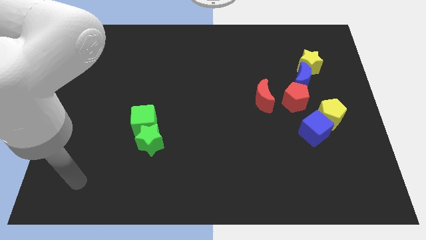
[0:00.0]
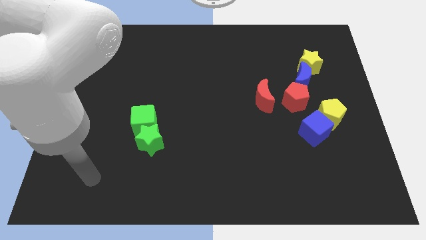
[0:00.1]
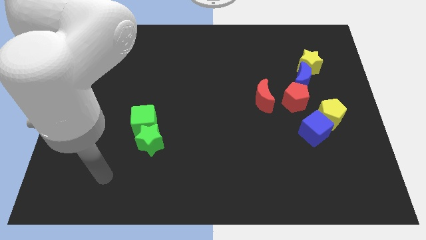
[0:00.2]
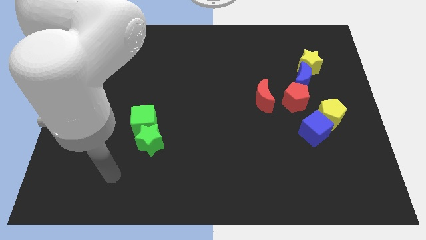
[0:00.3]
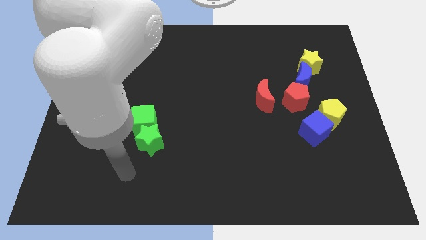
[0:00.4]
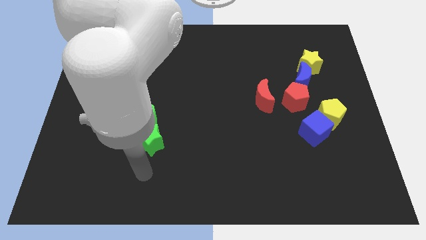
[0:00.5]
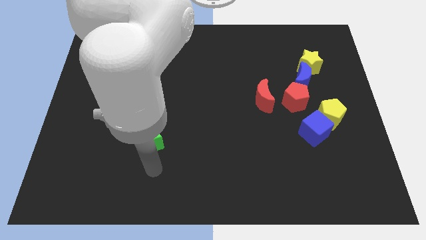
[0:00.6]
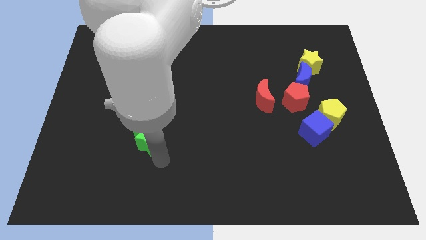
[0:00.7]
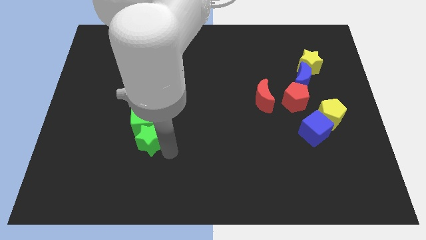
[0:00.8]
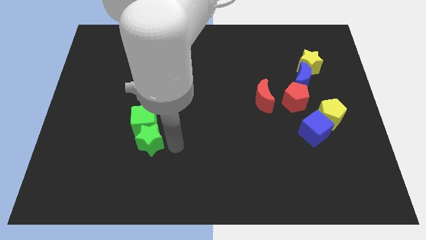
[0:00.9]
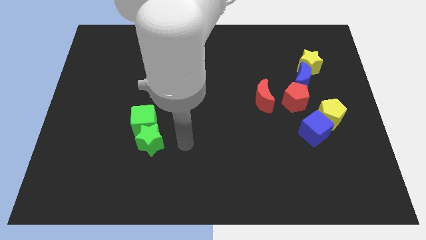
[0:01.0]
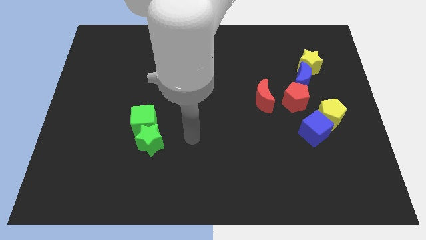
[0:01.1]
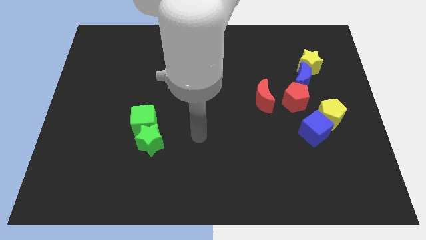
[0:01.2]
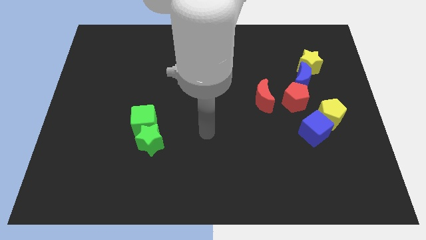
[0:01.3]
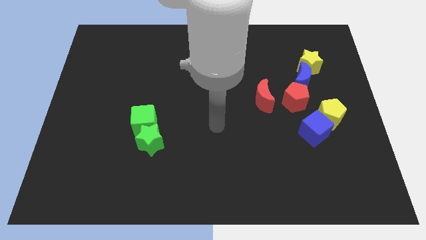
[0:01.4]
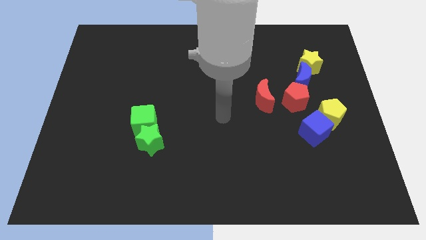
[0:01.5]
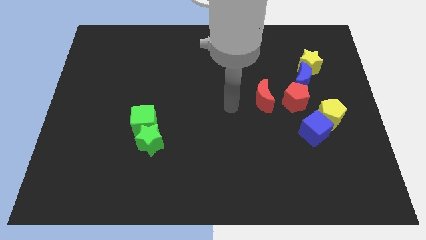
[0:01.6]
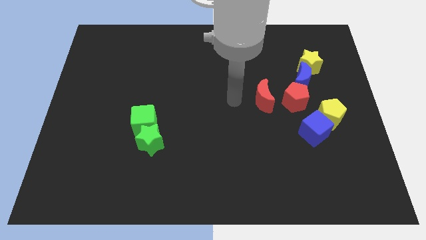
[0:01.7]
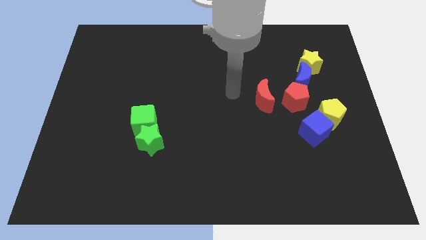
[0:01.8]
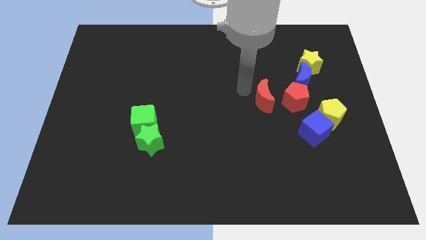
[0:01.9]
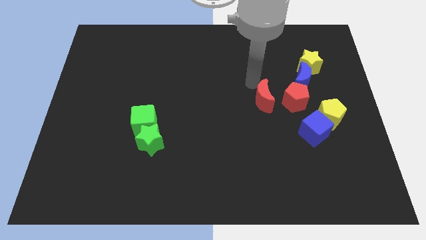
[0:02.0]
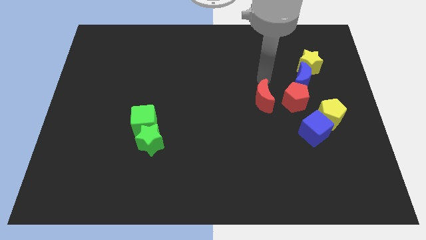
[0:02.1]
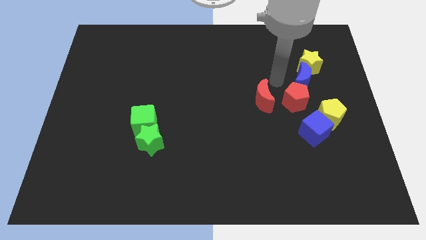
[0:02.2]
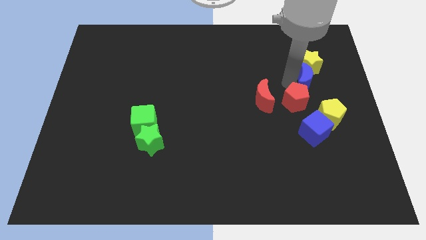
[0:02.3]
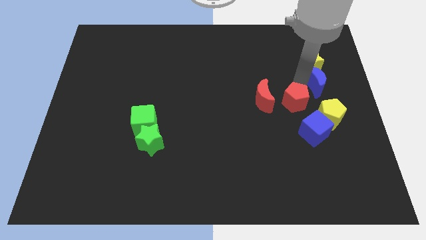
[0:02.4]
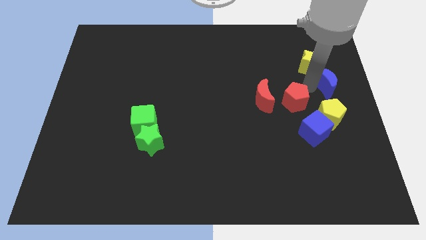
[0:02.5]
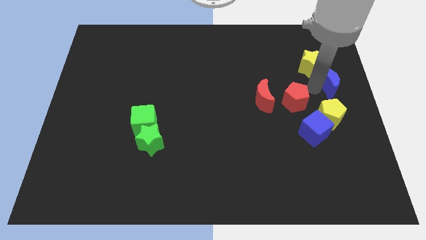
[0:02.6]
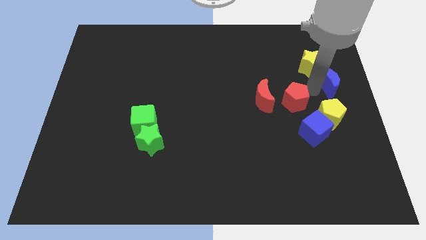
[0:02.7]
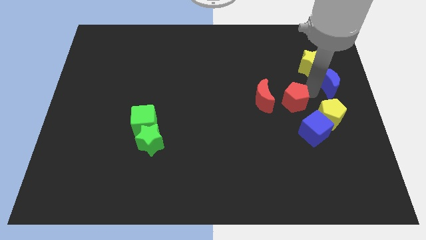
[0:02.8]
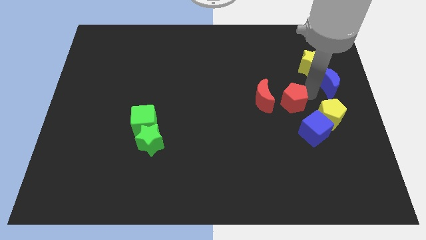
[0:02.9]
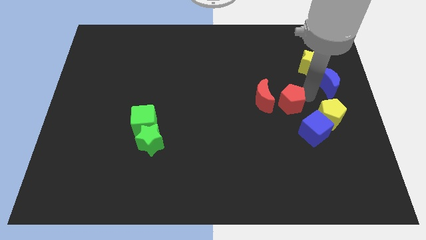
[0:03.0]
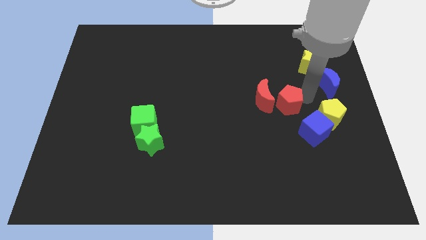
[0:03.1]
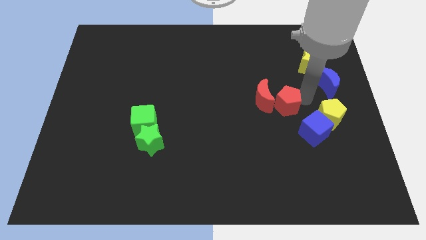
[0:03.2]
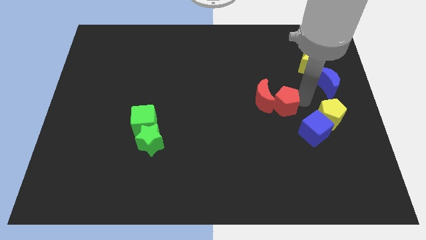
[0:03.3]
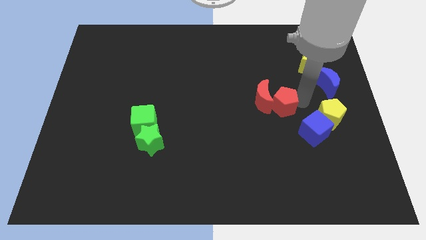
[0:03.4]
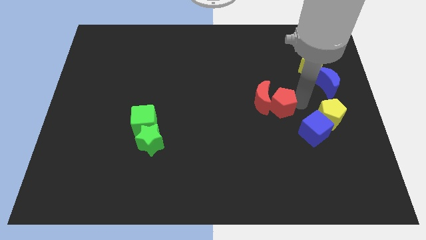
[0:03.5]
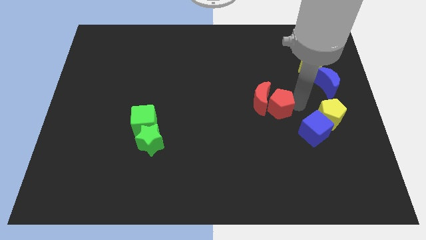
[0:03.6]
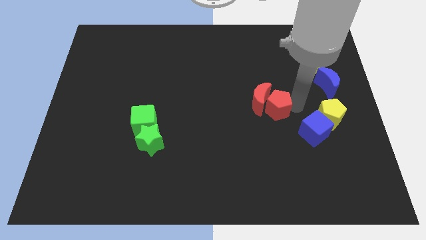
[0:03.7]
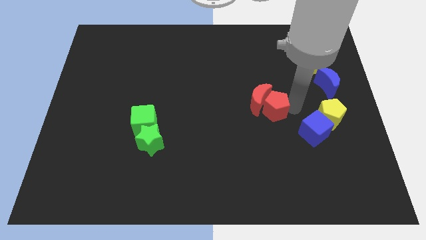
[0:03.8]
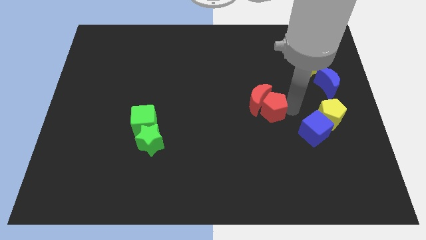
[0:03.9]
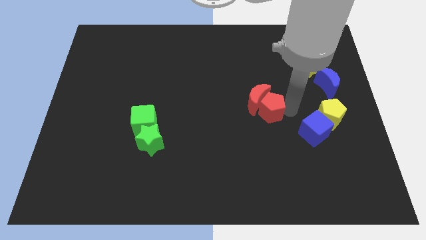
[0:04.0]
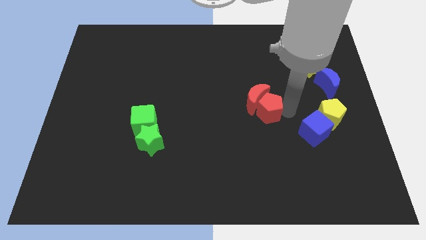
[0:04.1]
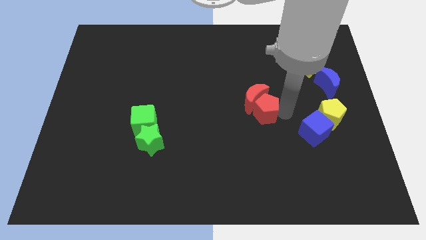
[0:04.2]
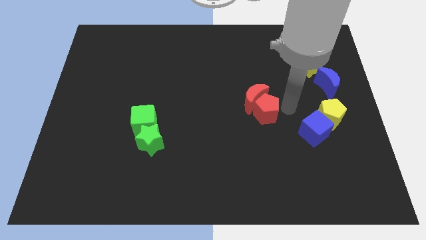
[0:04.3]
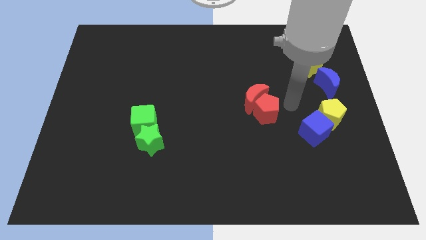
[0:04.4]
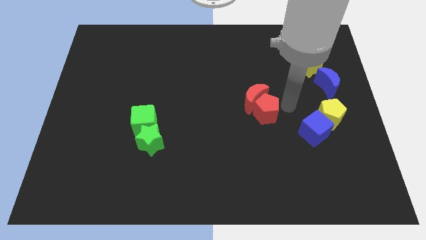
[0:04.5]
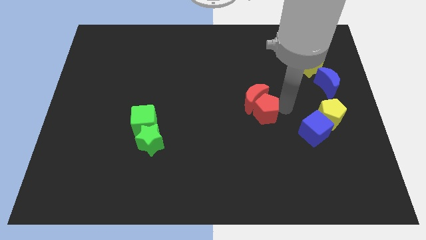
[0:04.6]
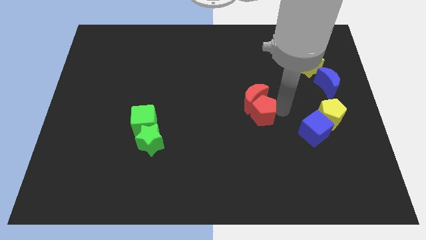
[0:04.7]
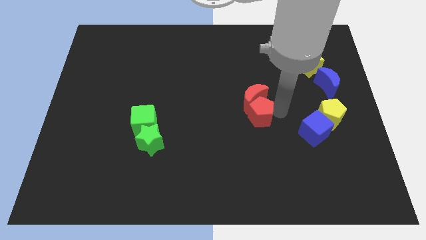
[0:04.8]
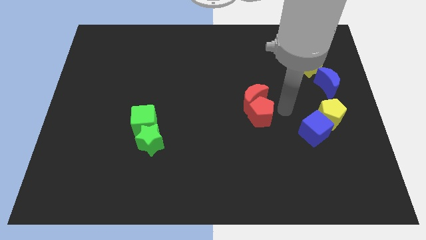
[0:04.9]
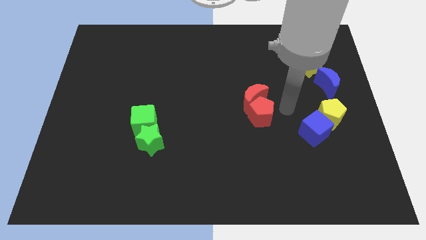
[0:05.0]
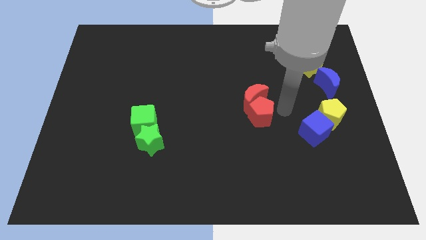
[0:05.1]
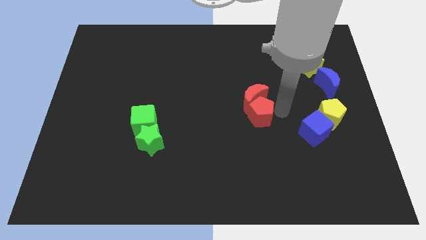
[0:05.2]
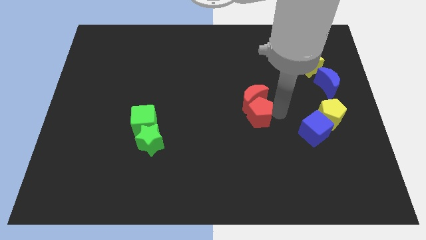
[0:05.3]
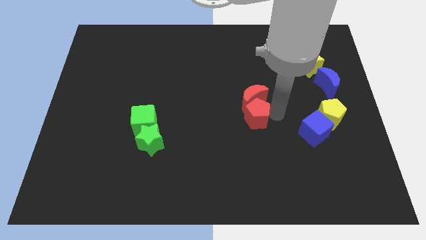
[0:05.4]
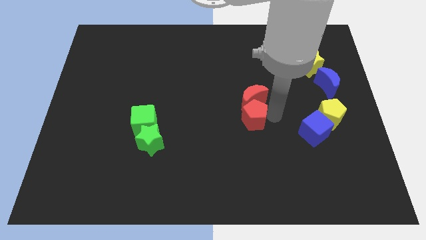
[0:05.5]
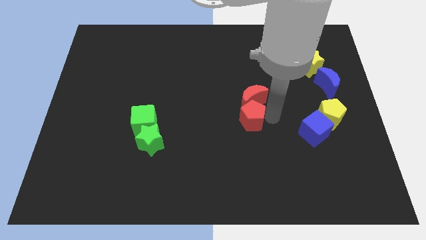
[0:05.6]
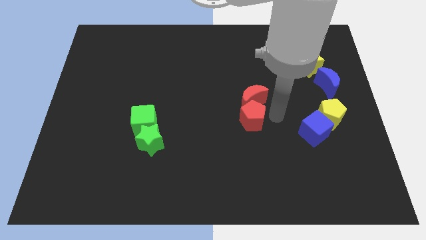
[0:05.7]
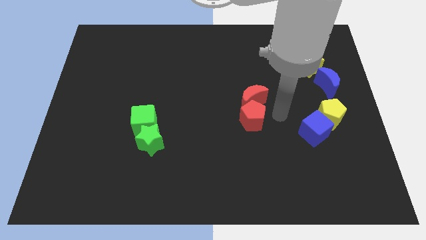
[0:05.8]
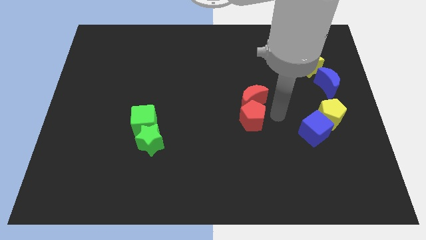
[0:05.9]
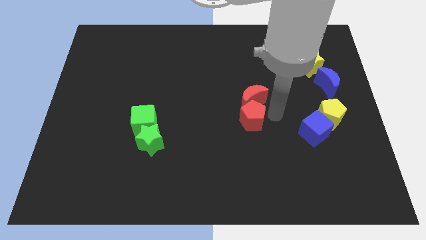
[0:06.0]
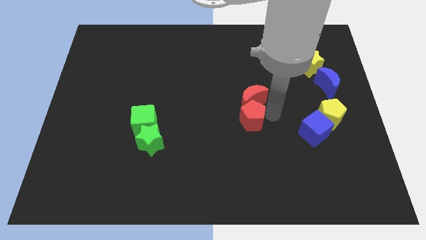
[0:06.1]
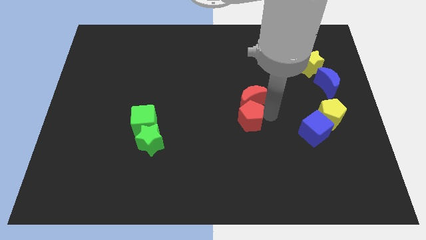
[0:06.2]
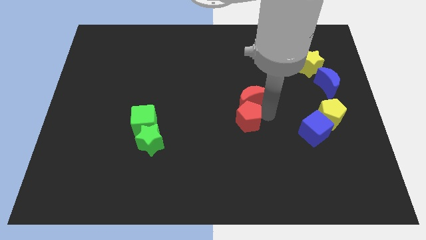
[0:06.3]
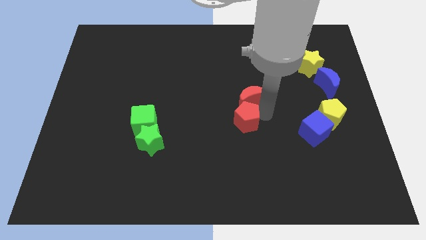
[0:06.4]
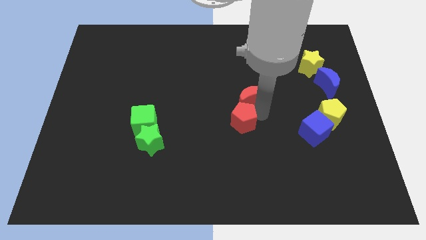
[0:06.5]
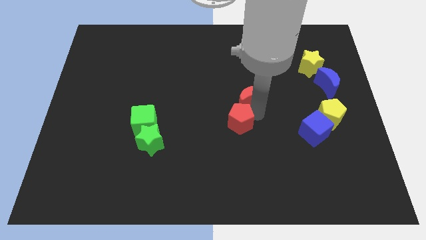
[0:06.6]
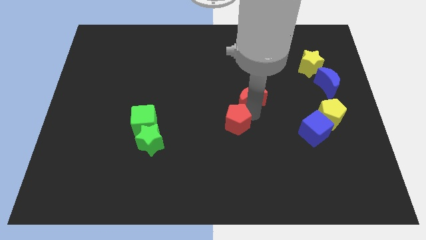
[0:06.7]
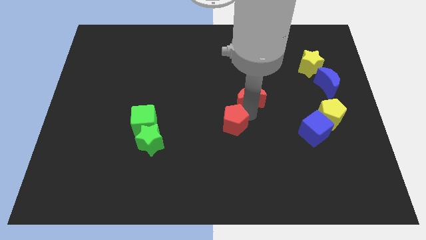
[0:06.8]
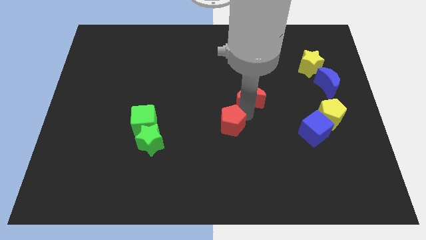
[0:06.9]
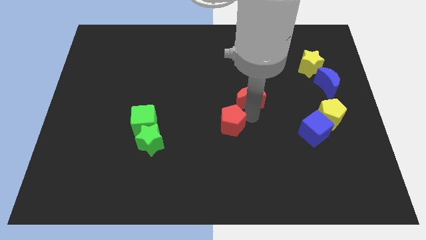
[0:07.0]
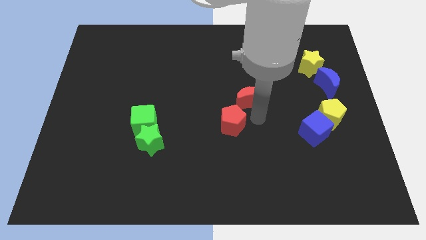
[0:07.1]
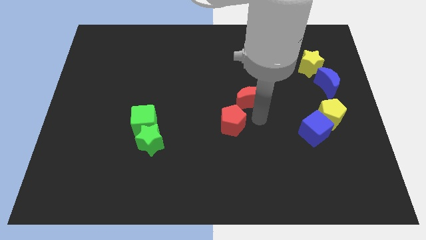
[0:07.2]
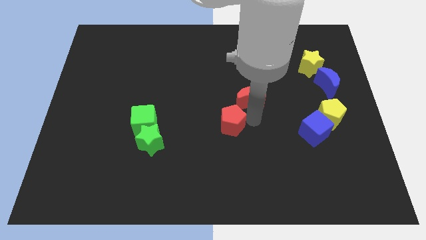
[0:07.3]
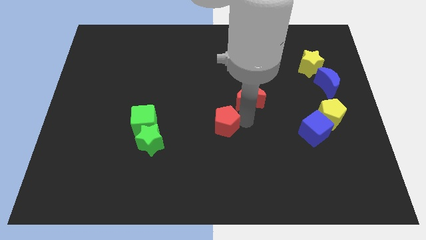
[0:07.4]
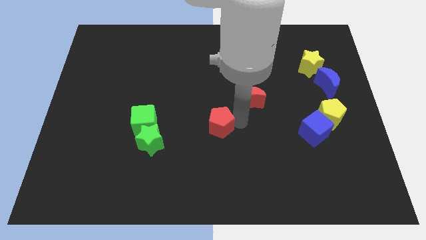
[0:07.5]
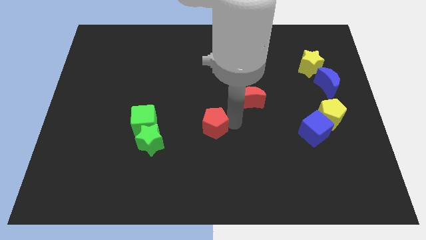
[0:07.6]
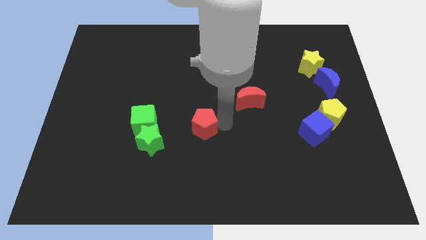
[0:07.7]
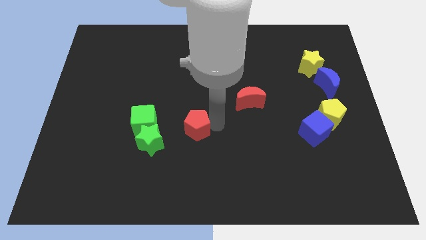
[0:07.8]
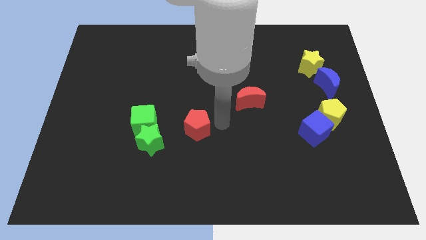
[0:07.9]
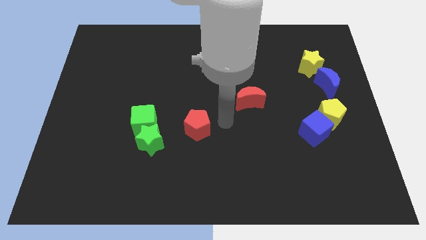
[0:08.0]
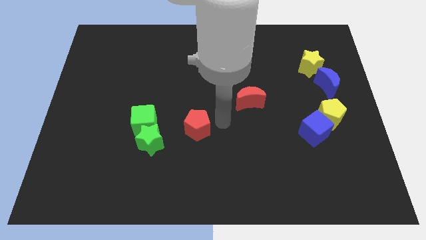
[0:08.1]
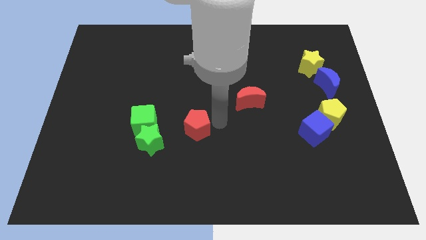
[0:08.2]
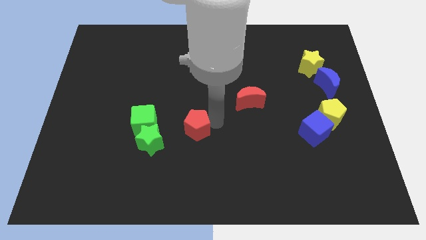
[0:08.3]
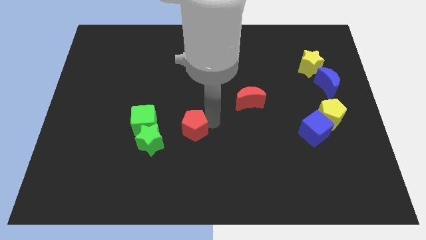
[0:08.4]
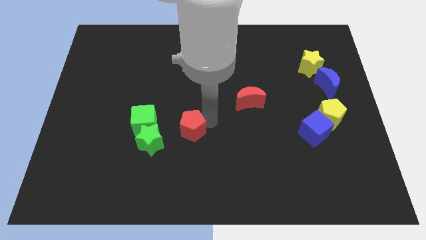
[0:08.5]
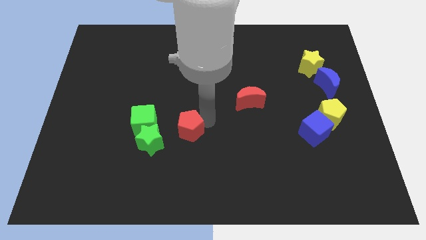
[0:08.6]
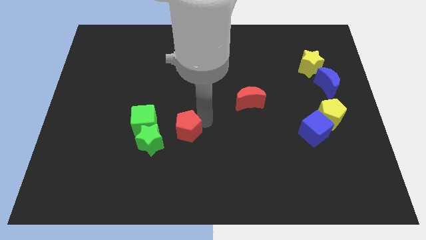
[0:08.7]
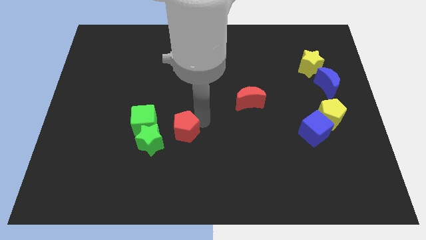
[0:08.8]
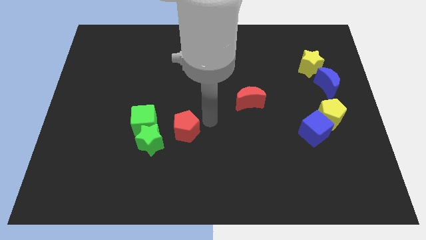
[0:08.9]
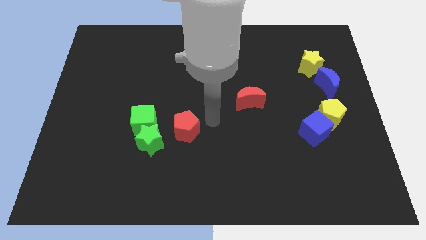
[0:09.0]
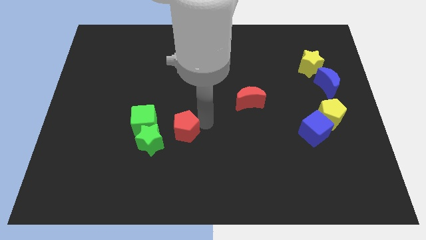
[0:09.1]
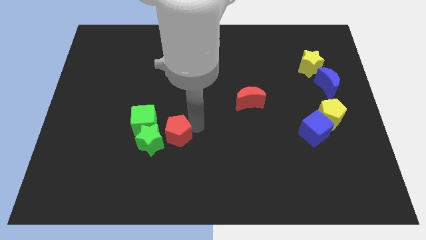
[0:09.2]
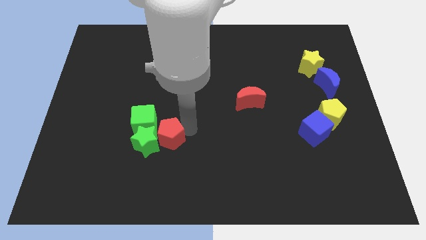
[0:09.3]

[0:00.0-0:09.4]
push the red pentagon towards the green star
